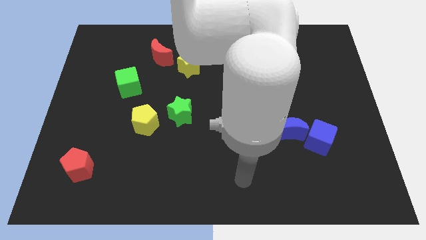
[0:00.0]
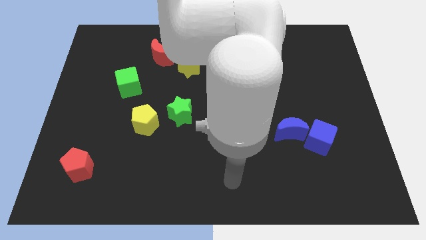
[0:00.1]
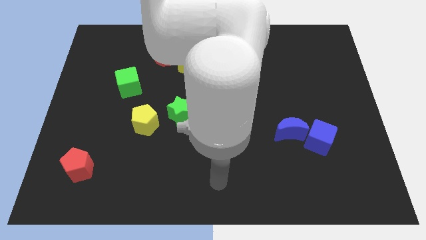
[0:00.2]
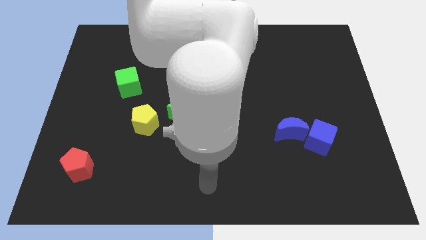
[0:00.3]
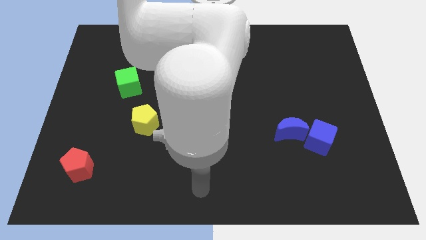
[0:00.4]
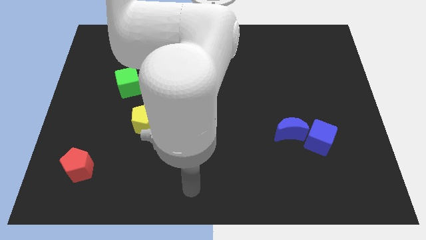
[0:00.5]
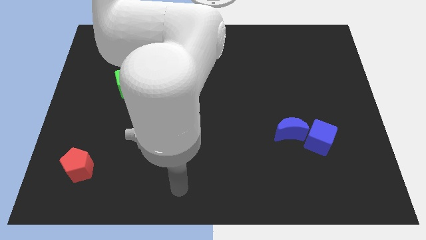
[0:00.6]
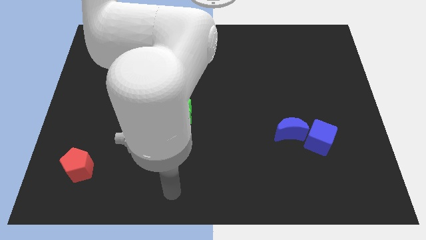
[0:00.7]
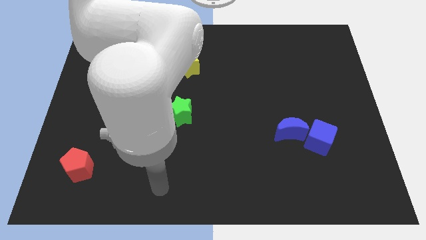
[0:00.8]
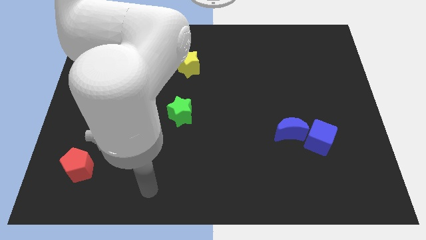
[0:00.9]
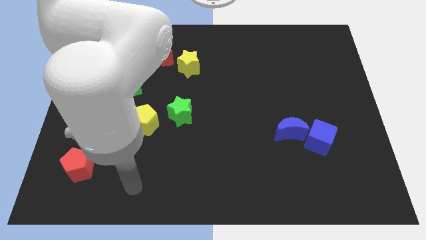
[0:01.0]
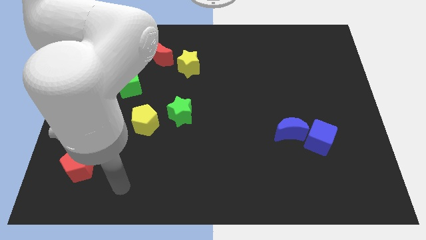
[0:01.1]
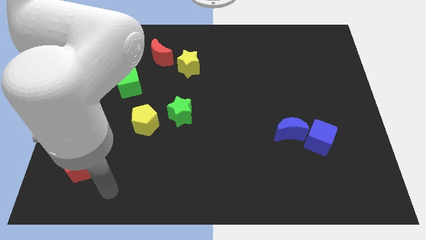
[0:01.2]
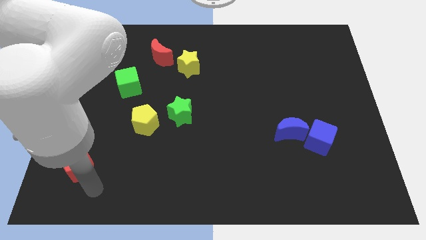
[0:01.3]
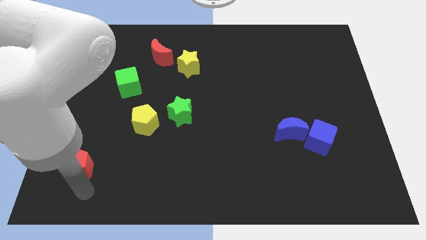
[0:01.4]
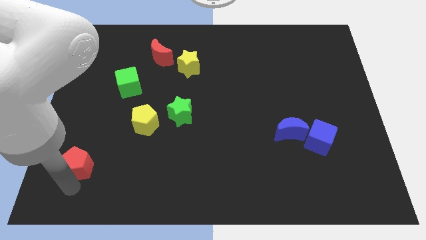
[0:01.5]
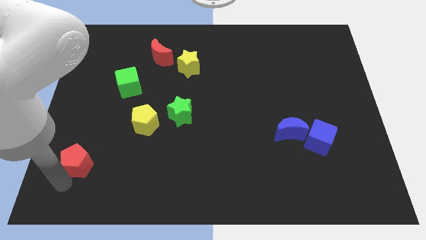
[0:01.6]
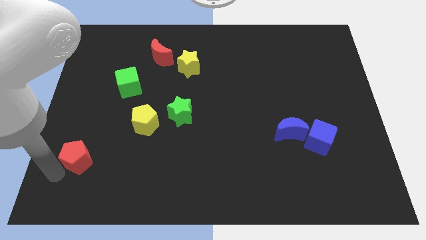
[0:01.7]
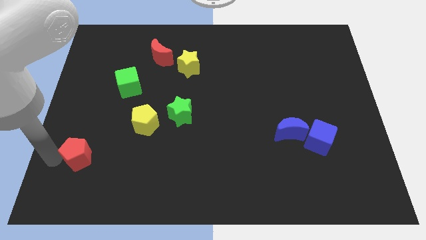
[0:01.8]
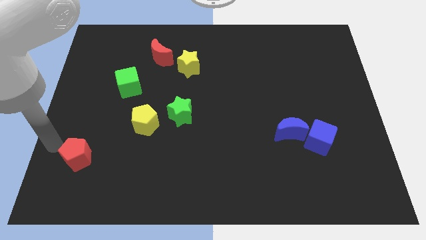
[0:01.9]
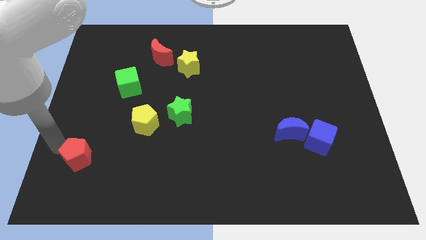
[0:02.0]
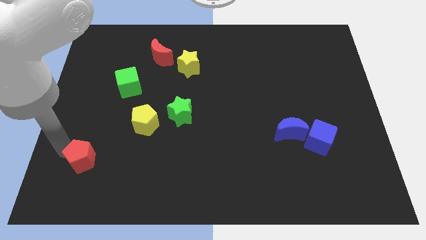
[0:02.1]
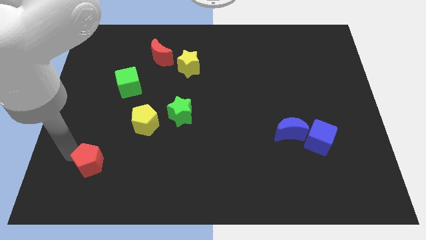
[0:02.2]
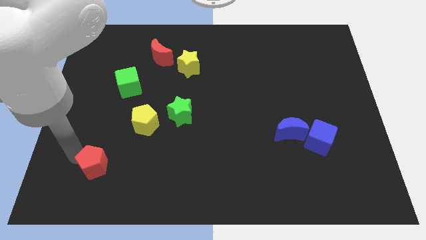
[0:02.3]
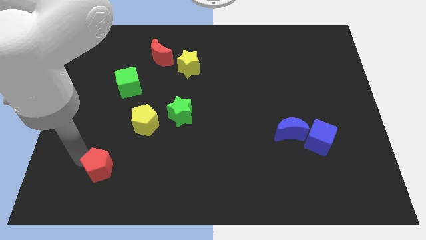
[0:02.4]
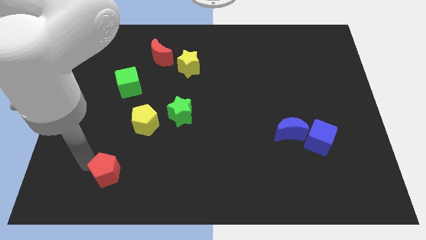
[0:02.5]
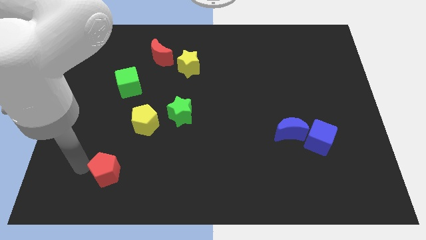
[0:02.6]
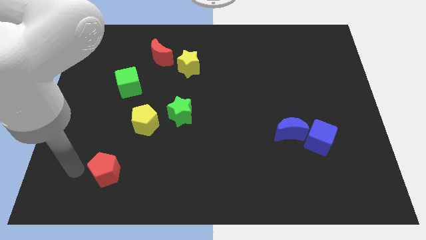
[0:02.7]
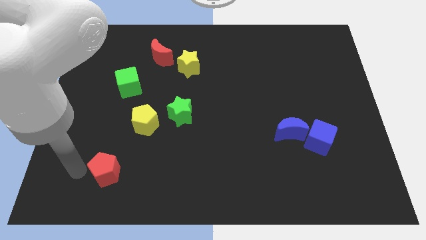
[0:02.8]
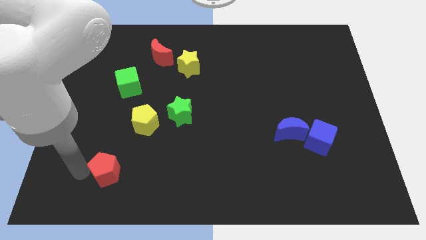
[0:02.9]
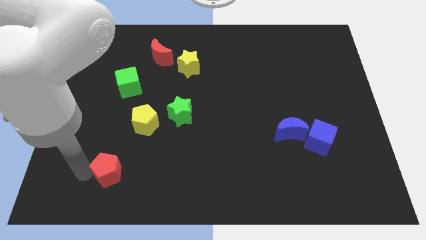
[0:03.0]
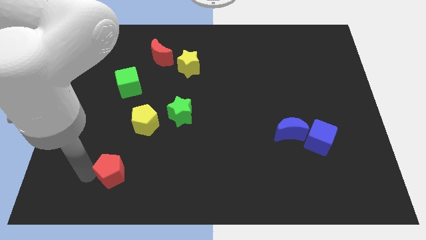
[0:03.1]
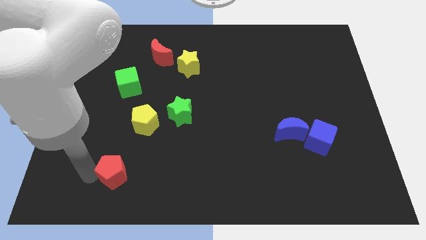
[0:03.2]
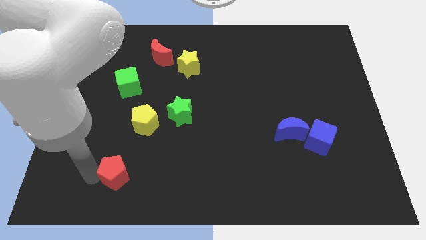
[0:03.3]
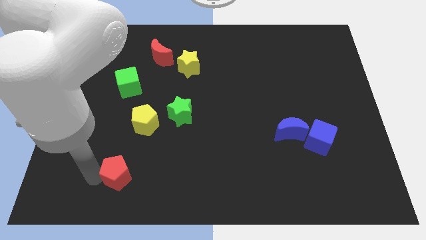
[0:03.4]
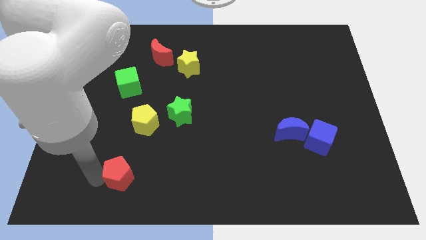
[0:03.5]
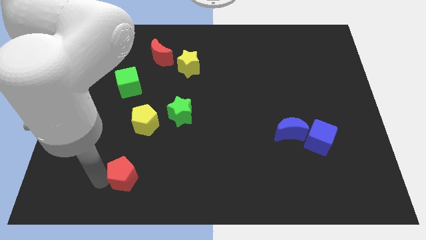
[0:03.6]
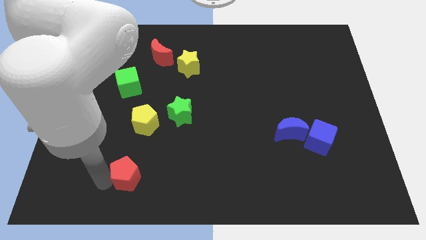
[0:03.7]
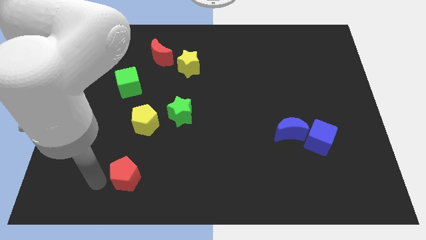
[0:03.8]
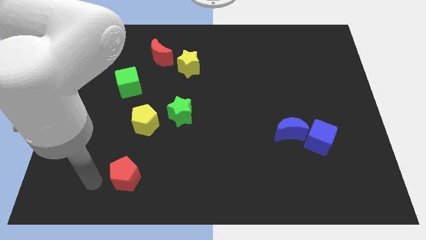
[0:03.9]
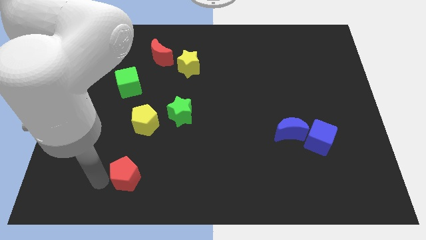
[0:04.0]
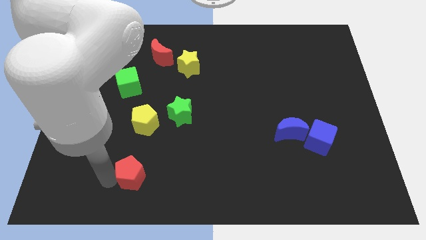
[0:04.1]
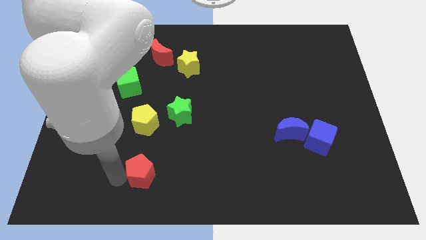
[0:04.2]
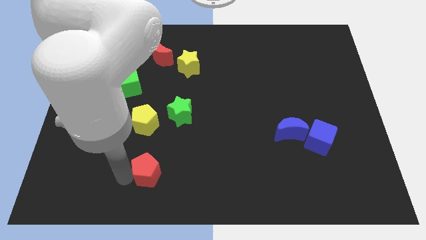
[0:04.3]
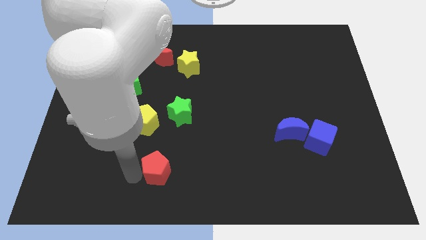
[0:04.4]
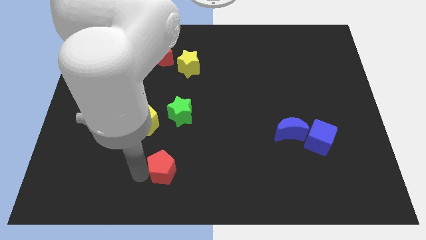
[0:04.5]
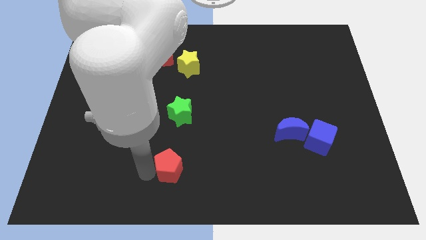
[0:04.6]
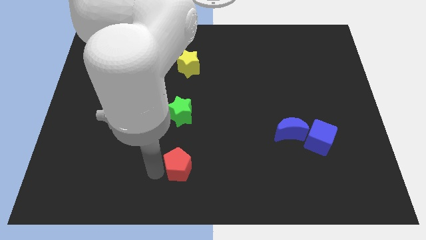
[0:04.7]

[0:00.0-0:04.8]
push the red pentagon to the right

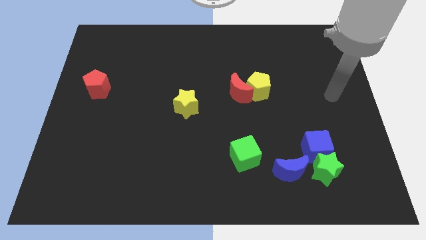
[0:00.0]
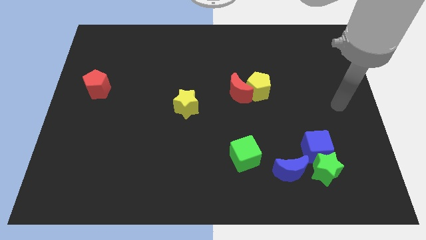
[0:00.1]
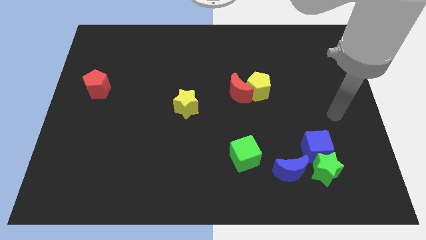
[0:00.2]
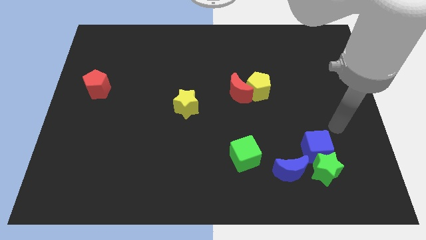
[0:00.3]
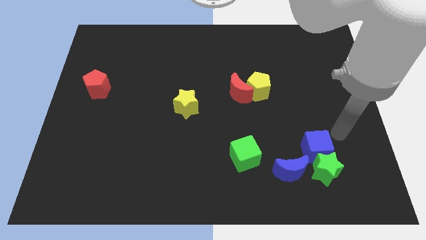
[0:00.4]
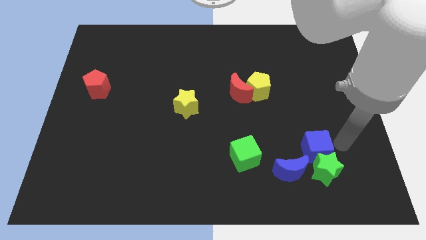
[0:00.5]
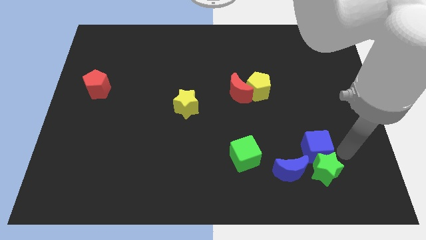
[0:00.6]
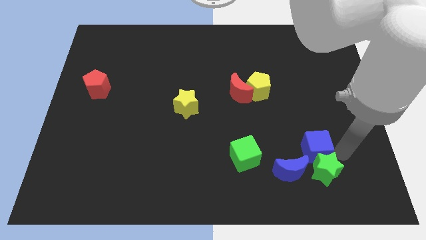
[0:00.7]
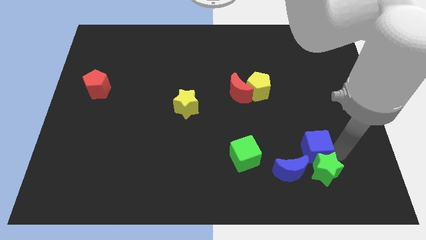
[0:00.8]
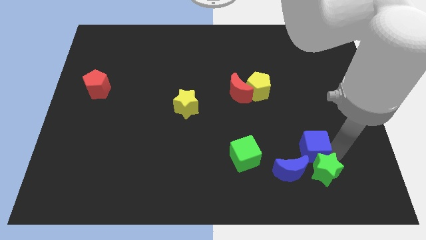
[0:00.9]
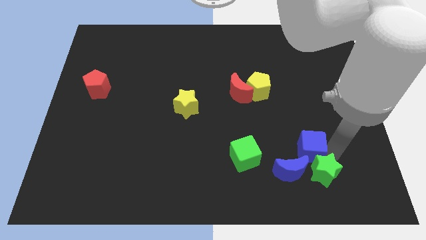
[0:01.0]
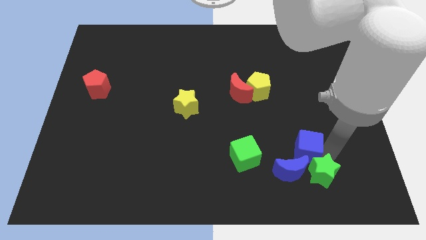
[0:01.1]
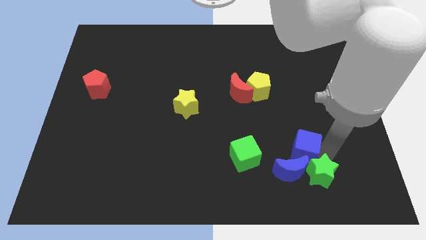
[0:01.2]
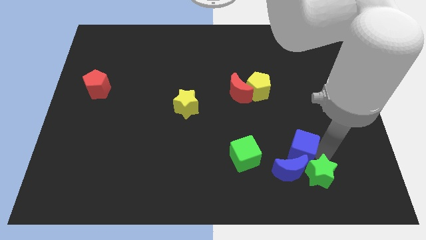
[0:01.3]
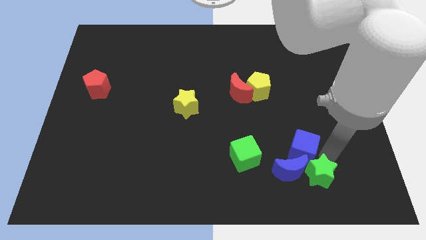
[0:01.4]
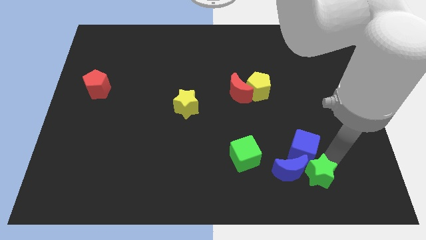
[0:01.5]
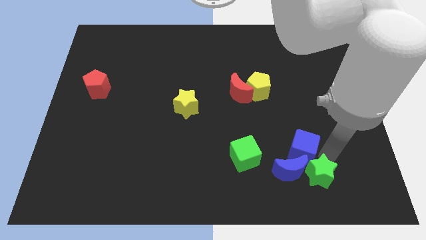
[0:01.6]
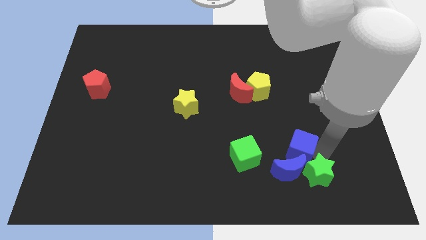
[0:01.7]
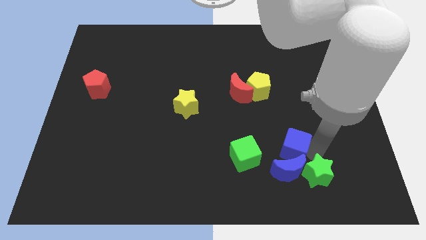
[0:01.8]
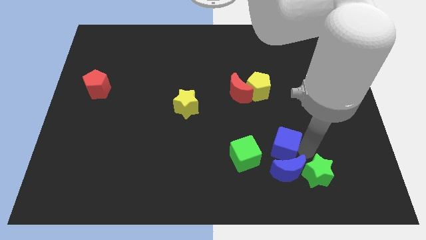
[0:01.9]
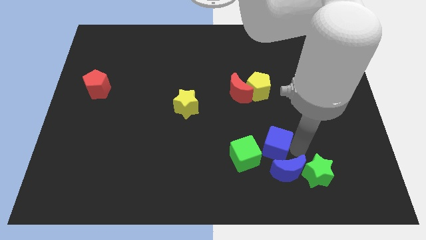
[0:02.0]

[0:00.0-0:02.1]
slightly push the blue cube left

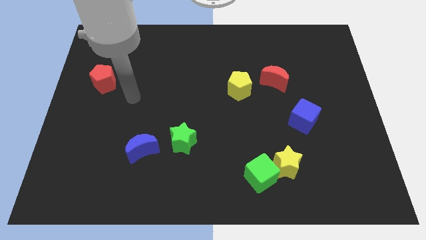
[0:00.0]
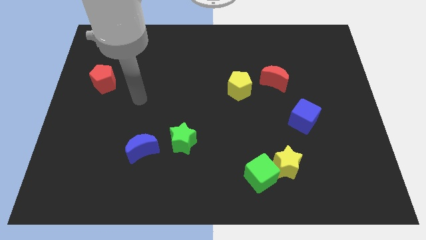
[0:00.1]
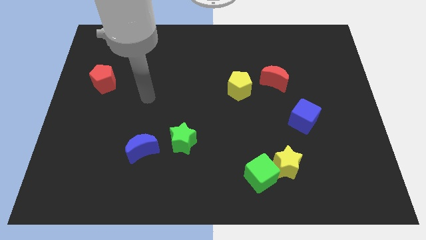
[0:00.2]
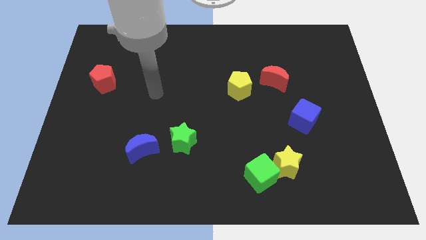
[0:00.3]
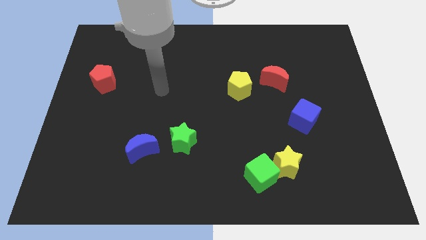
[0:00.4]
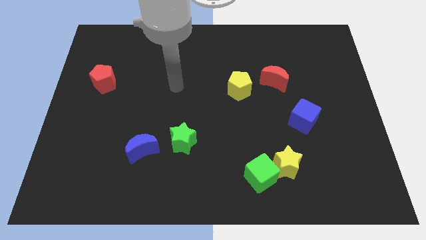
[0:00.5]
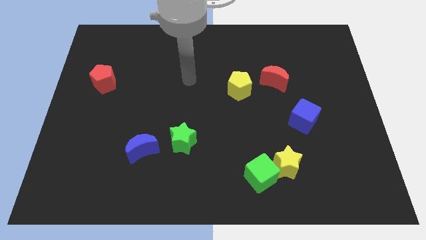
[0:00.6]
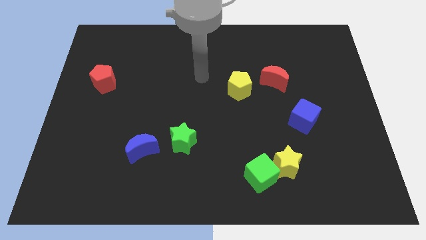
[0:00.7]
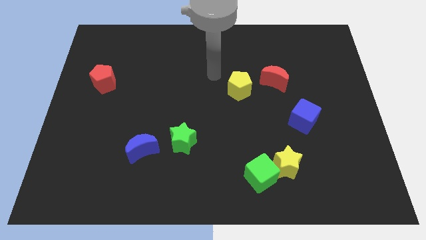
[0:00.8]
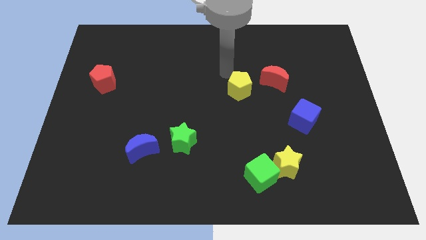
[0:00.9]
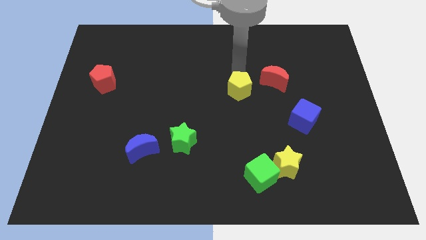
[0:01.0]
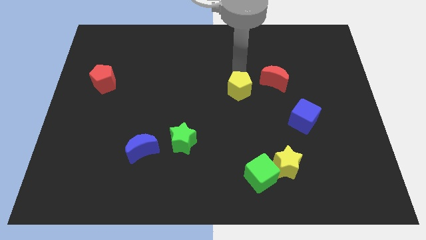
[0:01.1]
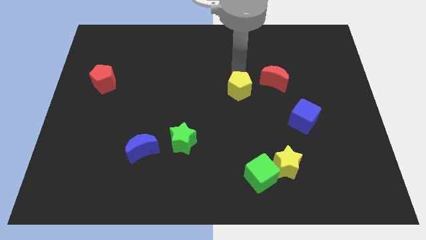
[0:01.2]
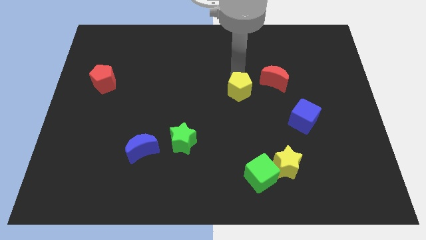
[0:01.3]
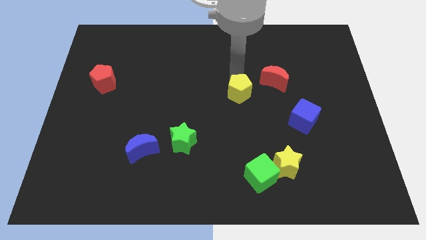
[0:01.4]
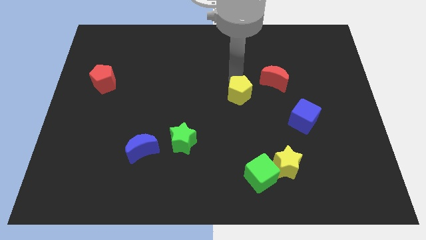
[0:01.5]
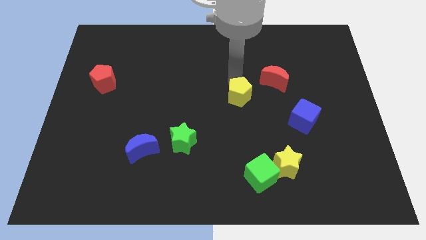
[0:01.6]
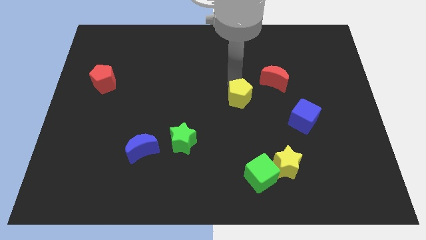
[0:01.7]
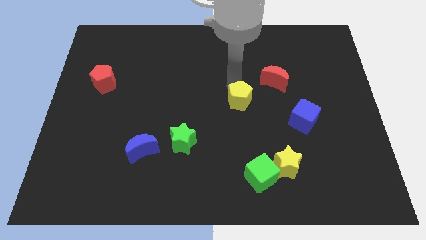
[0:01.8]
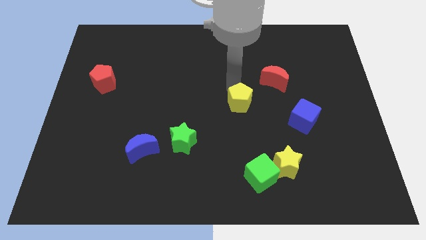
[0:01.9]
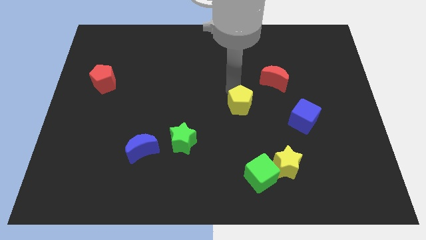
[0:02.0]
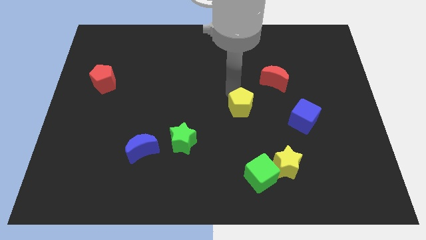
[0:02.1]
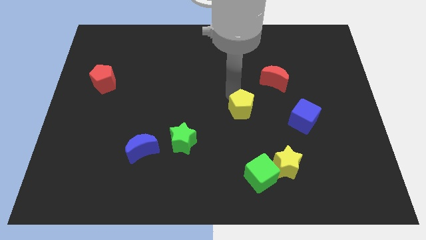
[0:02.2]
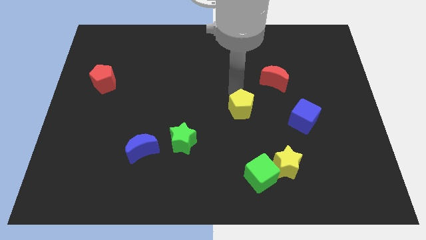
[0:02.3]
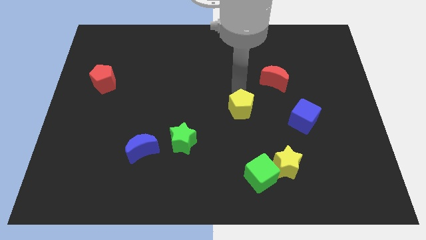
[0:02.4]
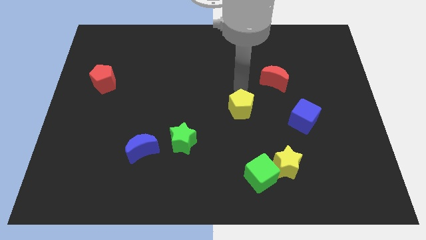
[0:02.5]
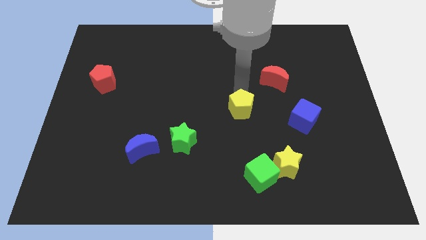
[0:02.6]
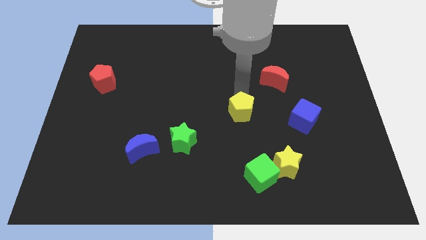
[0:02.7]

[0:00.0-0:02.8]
push the yellow pentagon a little bit down
